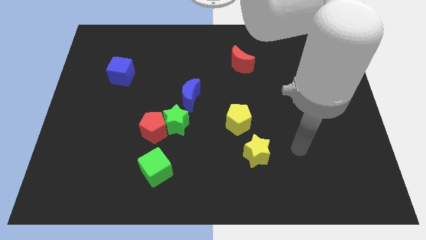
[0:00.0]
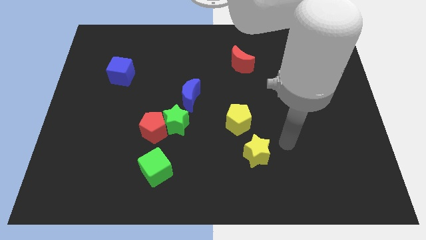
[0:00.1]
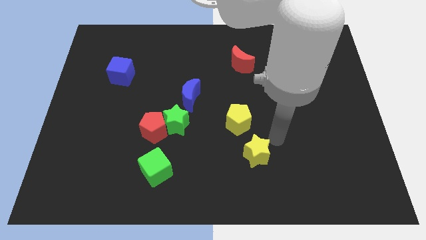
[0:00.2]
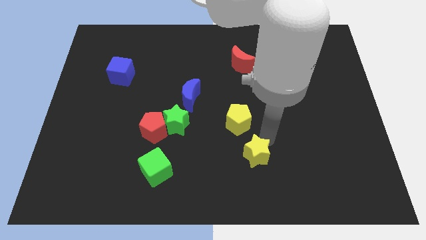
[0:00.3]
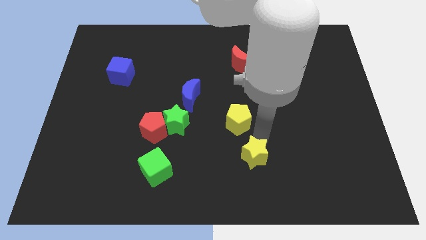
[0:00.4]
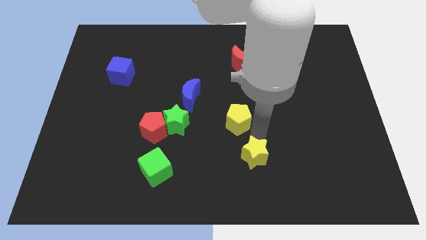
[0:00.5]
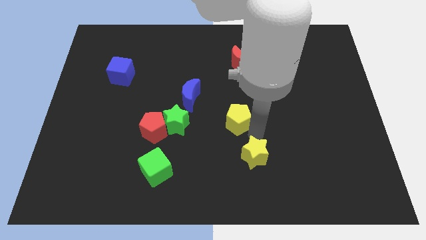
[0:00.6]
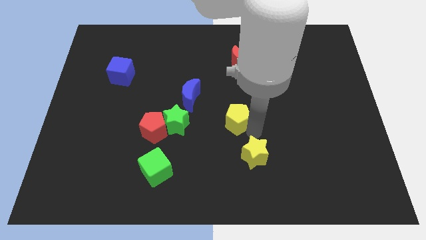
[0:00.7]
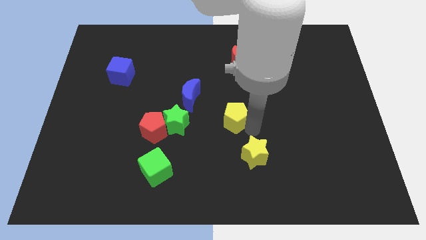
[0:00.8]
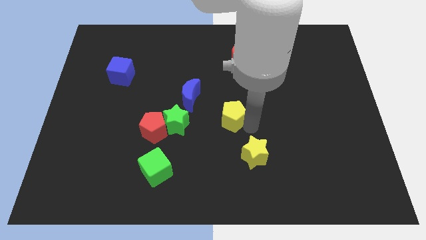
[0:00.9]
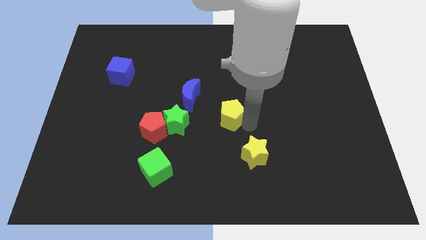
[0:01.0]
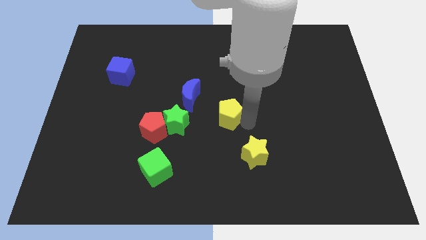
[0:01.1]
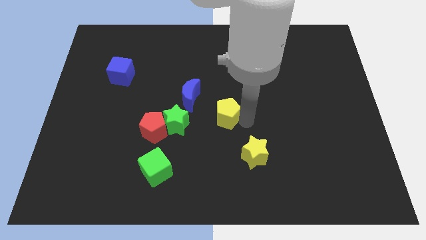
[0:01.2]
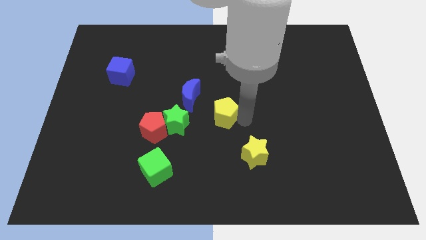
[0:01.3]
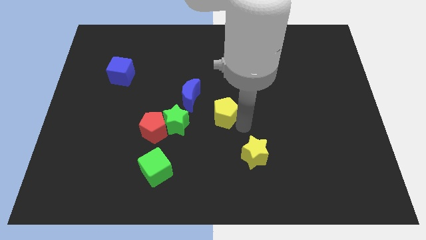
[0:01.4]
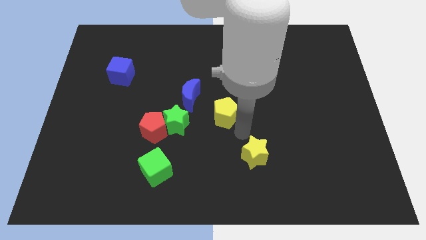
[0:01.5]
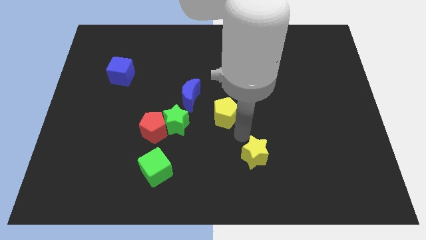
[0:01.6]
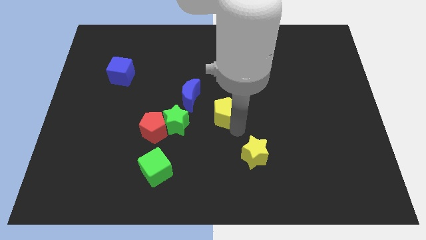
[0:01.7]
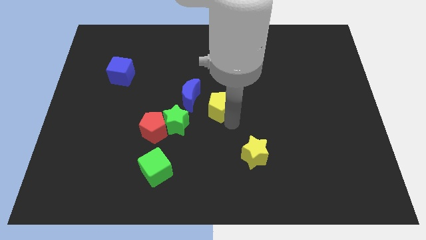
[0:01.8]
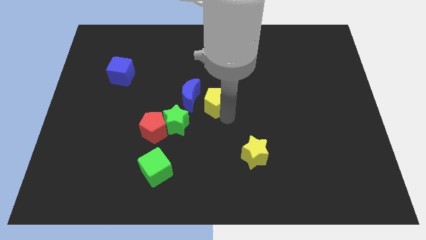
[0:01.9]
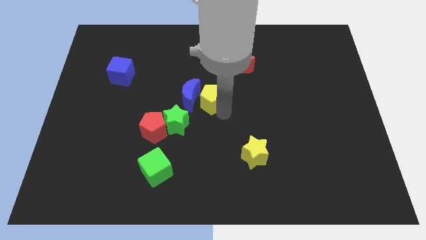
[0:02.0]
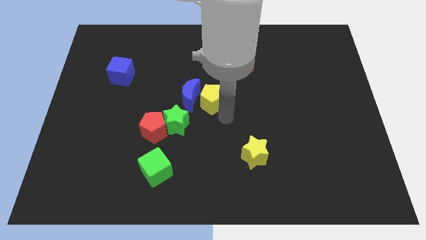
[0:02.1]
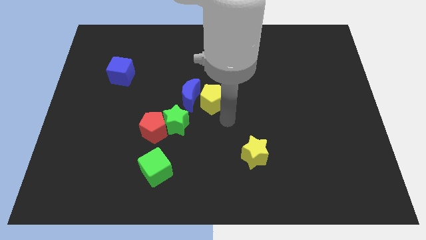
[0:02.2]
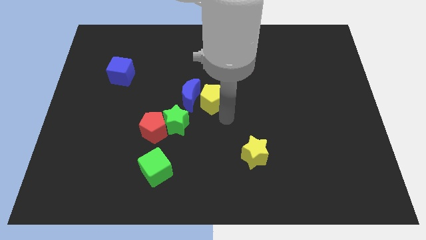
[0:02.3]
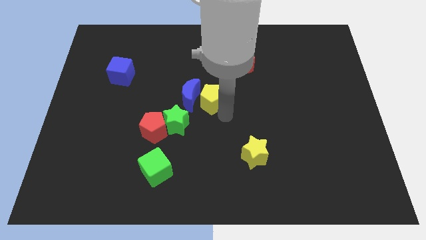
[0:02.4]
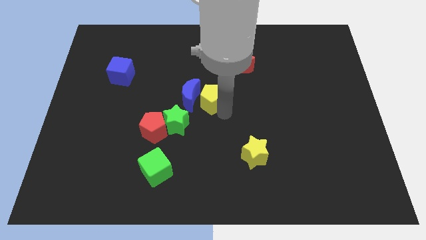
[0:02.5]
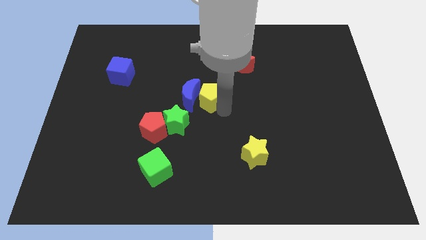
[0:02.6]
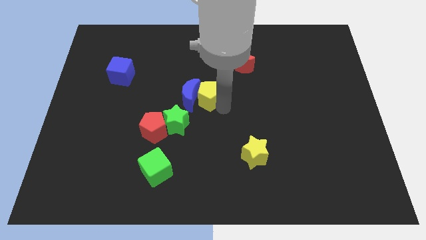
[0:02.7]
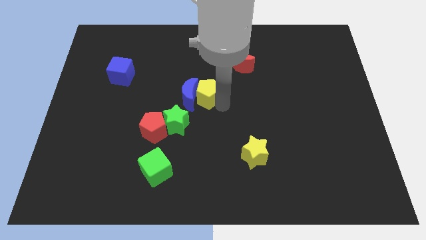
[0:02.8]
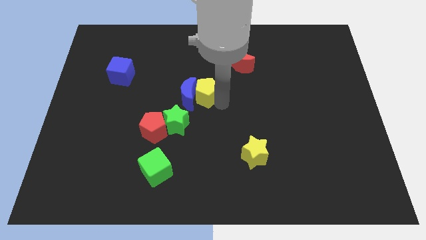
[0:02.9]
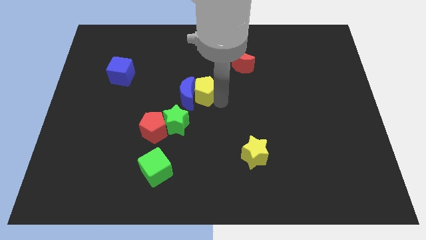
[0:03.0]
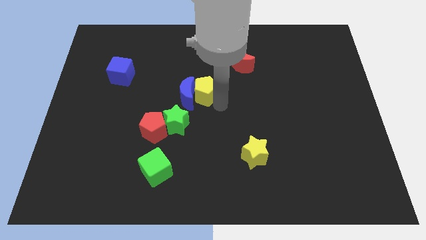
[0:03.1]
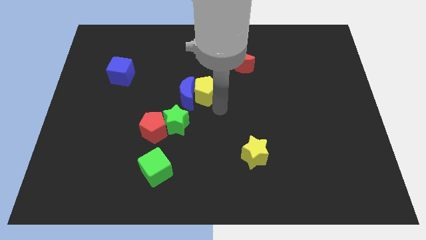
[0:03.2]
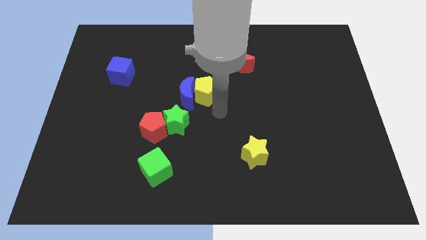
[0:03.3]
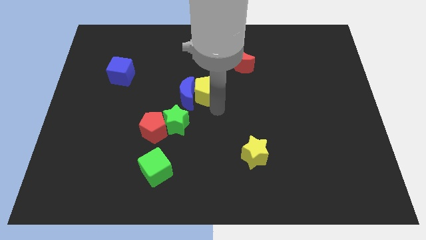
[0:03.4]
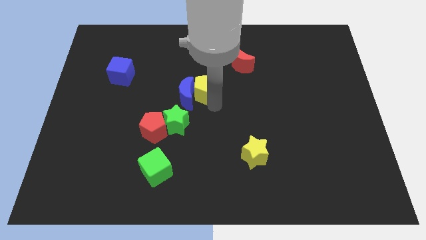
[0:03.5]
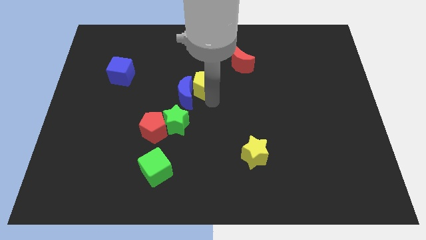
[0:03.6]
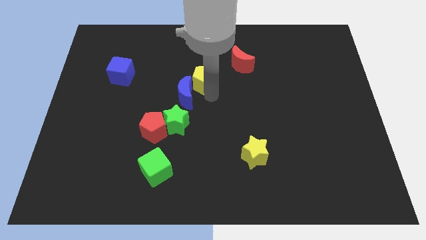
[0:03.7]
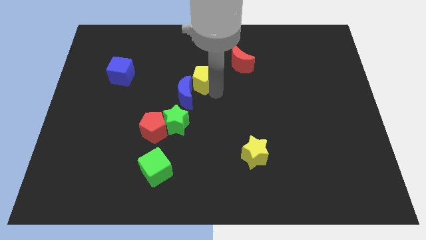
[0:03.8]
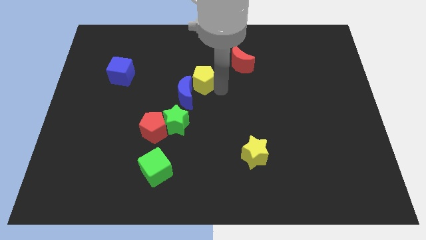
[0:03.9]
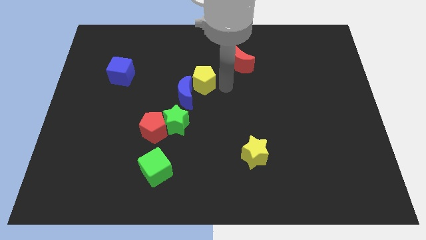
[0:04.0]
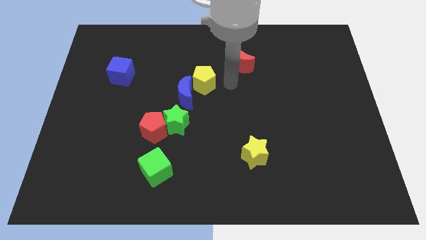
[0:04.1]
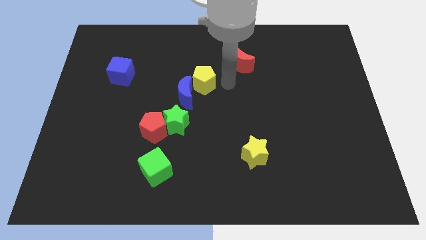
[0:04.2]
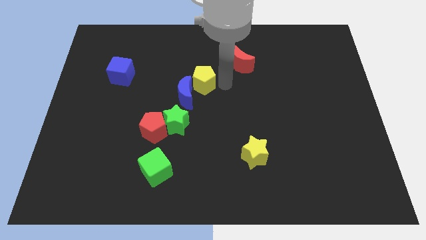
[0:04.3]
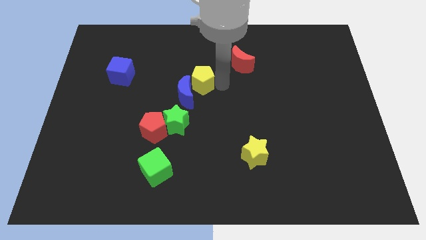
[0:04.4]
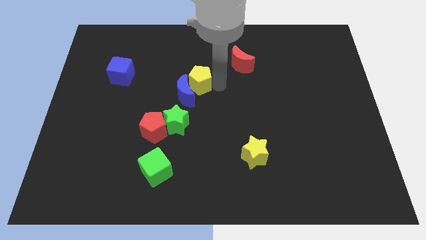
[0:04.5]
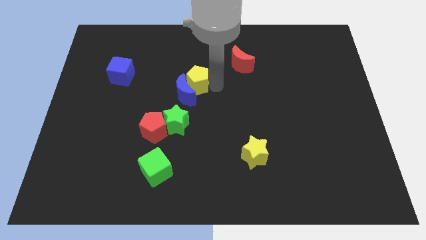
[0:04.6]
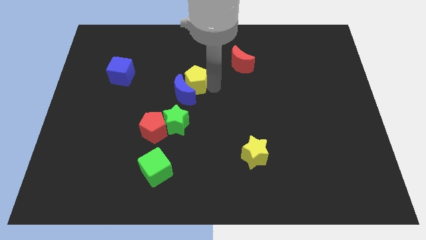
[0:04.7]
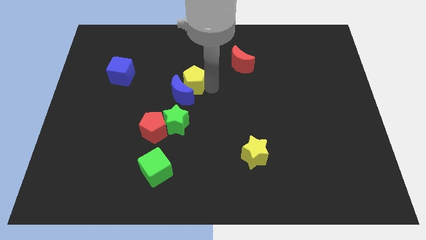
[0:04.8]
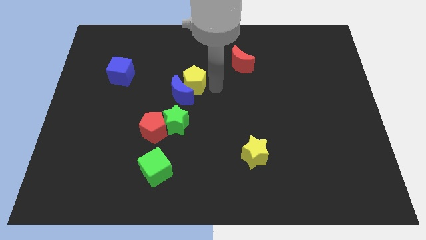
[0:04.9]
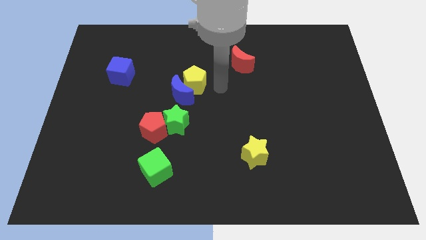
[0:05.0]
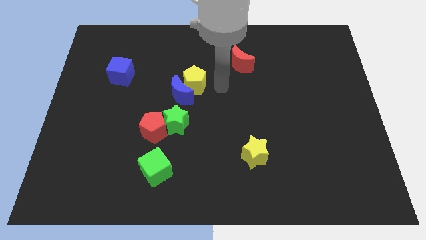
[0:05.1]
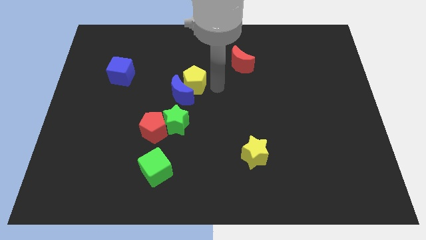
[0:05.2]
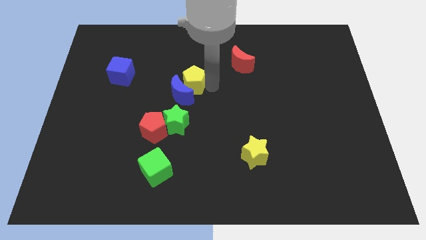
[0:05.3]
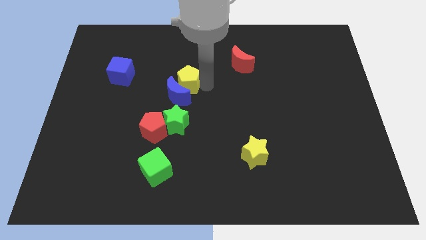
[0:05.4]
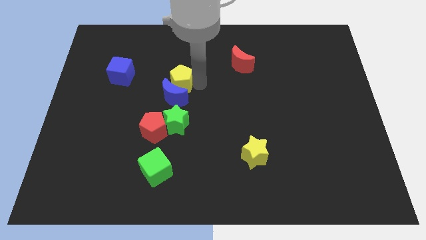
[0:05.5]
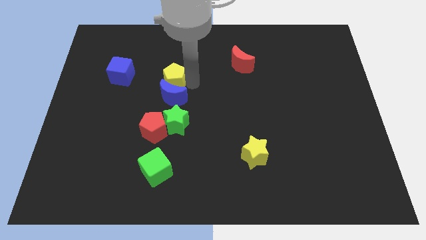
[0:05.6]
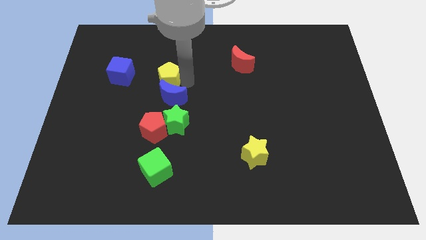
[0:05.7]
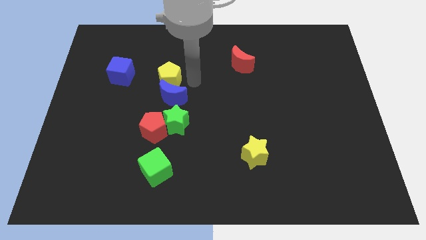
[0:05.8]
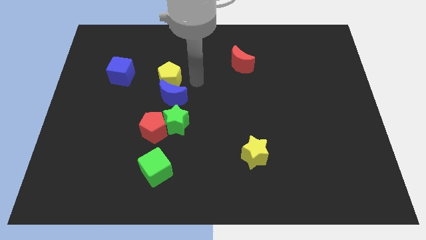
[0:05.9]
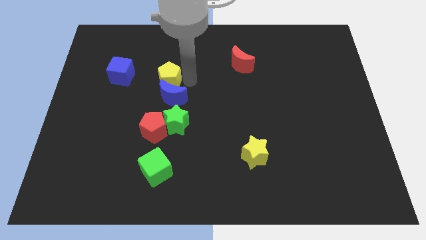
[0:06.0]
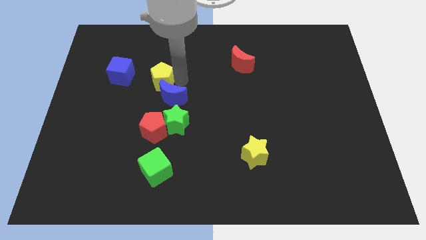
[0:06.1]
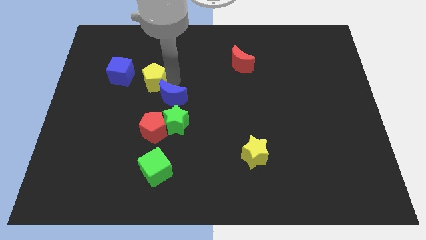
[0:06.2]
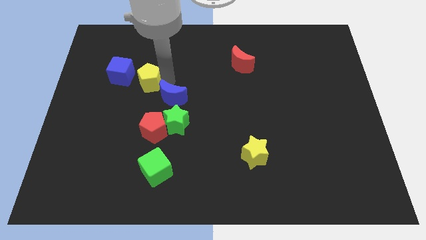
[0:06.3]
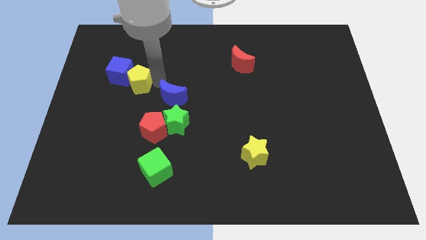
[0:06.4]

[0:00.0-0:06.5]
slide the yellow pentagon to the blue cube

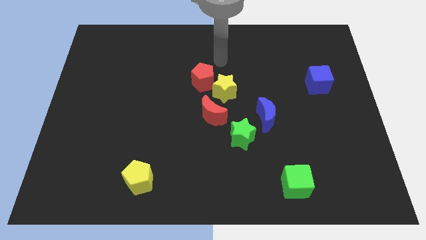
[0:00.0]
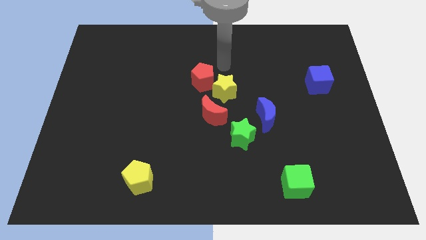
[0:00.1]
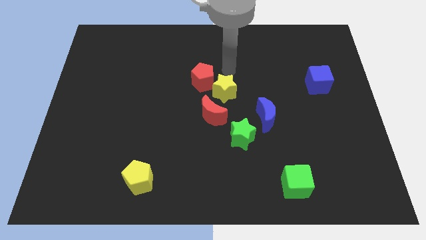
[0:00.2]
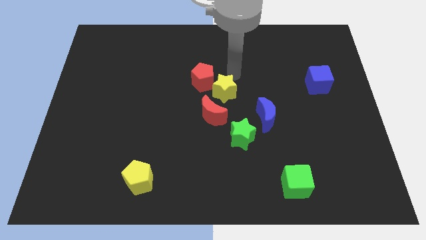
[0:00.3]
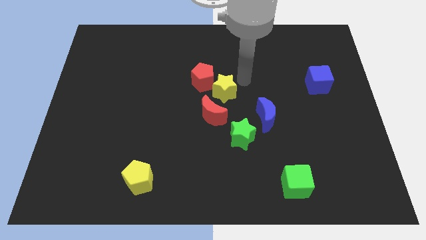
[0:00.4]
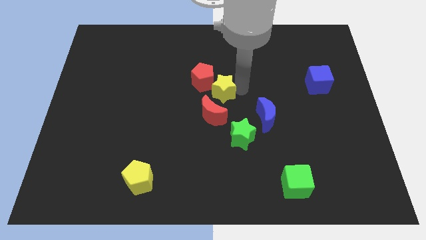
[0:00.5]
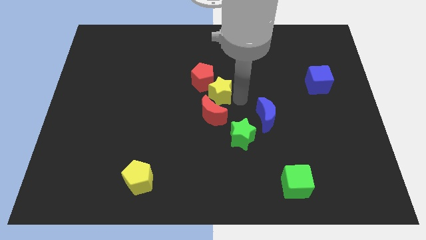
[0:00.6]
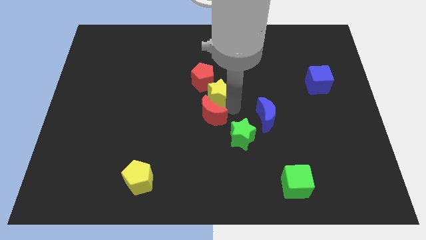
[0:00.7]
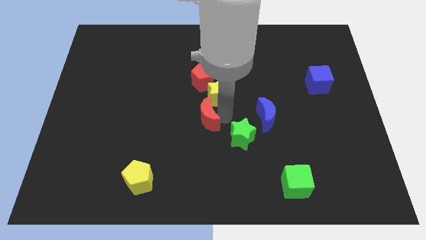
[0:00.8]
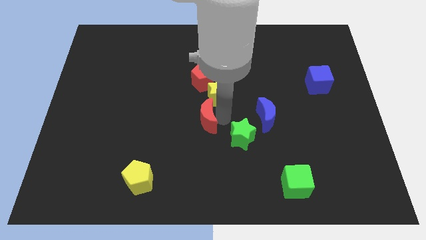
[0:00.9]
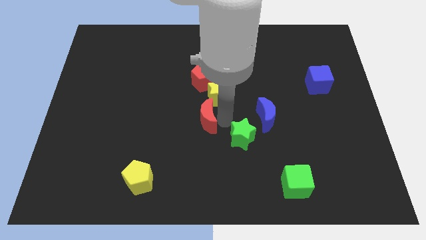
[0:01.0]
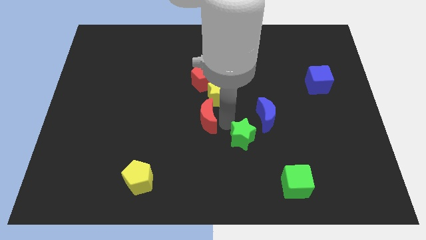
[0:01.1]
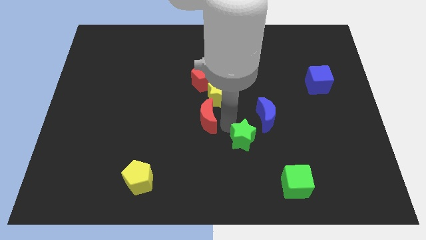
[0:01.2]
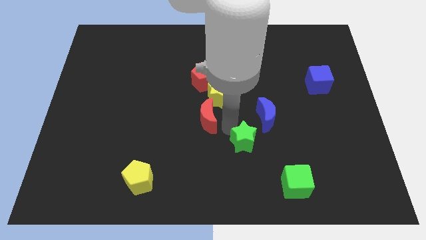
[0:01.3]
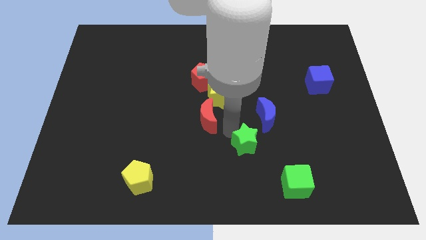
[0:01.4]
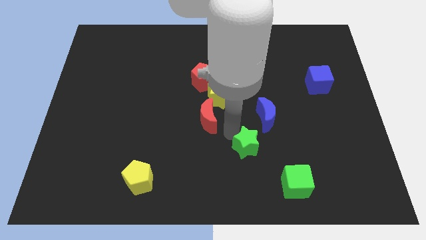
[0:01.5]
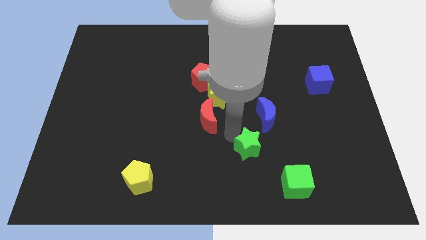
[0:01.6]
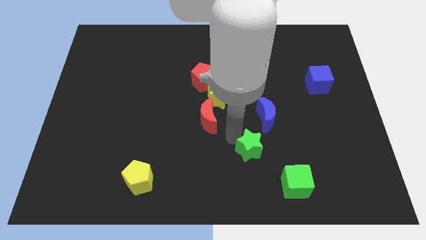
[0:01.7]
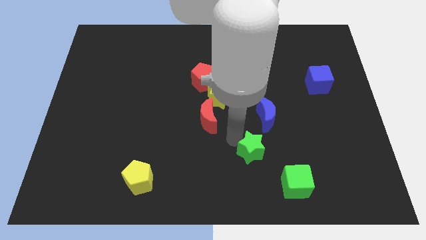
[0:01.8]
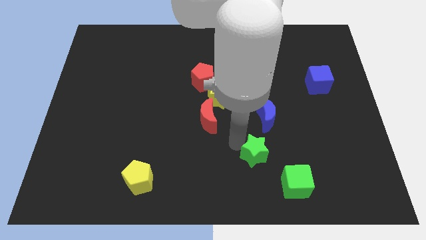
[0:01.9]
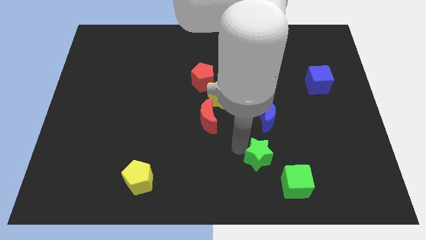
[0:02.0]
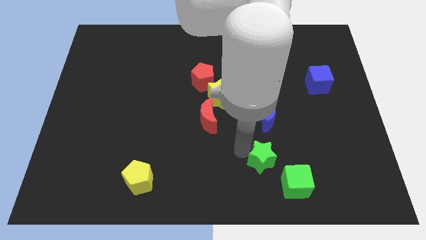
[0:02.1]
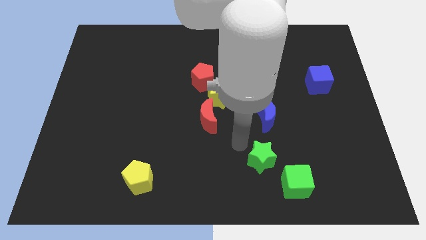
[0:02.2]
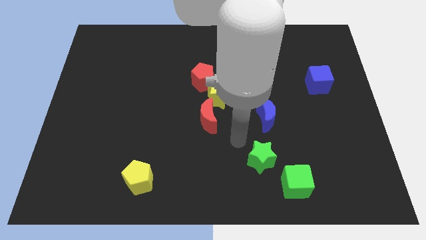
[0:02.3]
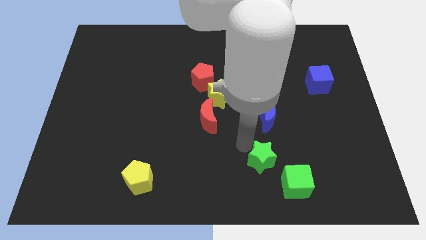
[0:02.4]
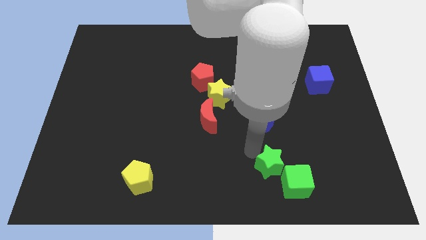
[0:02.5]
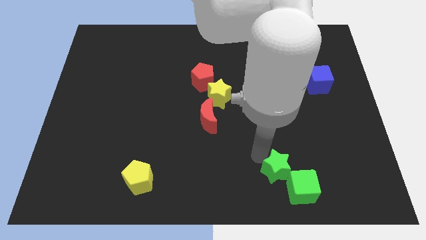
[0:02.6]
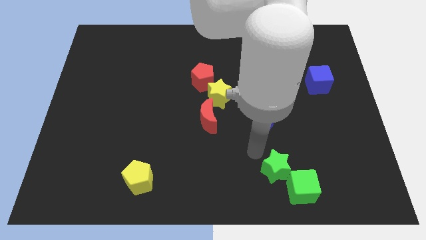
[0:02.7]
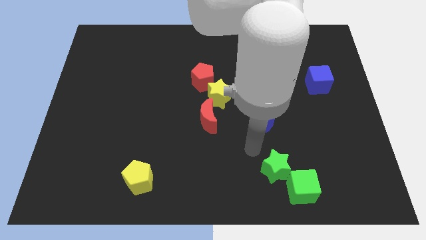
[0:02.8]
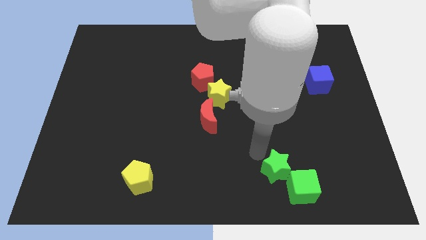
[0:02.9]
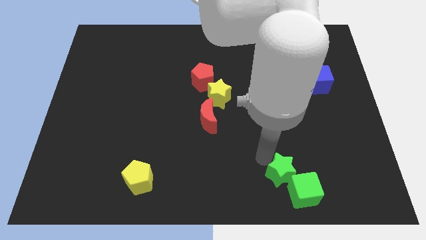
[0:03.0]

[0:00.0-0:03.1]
push the green star next to the green cube
